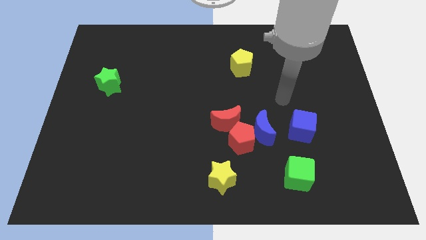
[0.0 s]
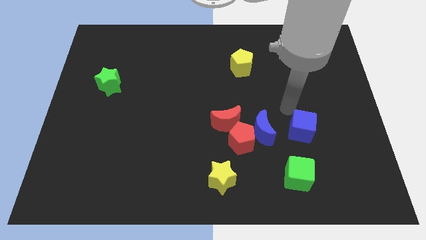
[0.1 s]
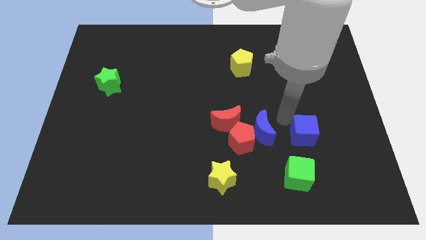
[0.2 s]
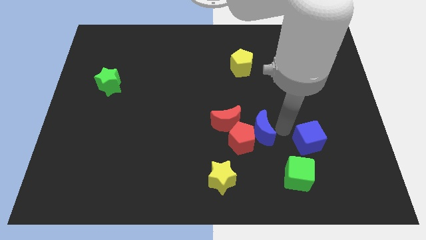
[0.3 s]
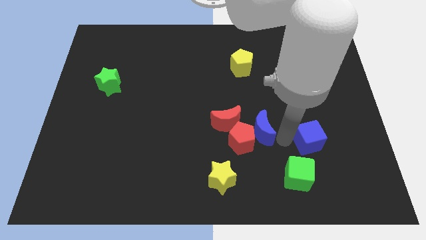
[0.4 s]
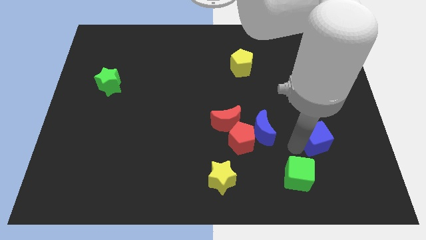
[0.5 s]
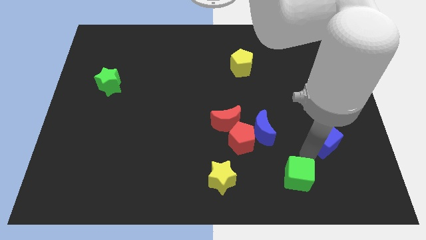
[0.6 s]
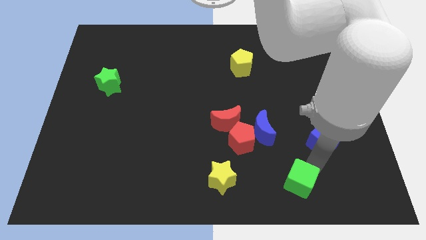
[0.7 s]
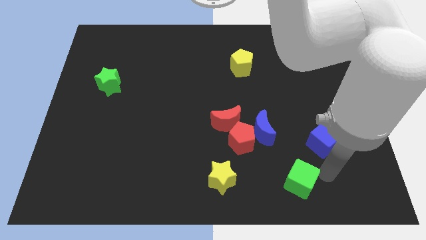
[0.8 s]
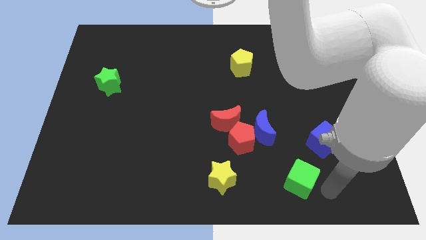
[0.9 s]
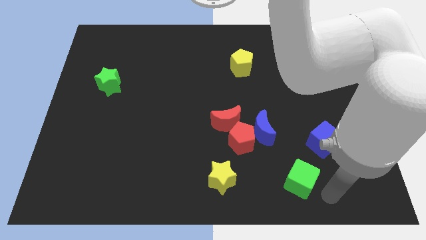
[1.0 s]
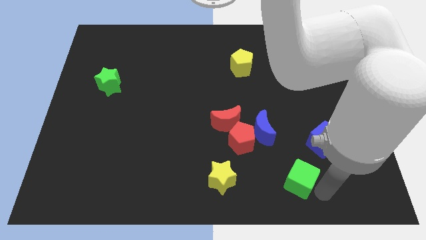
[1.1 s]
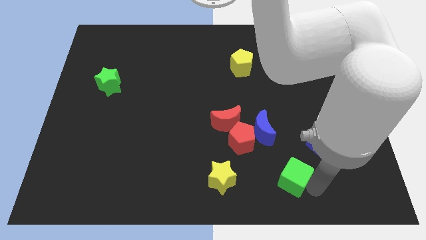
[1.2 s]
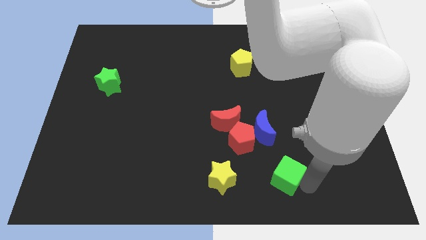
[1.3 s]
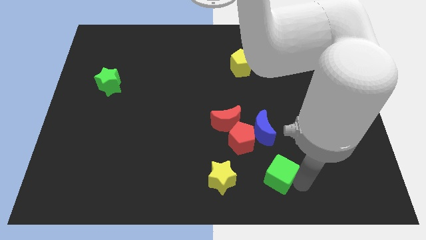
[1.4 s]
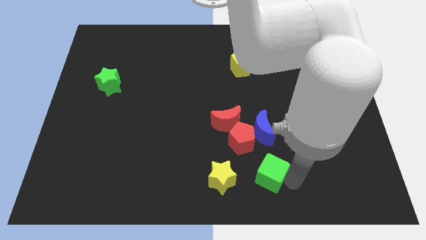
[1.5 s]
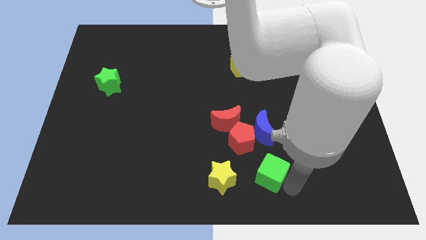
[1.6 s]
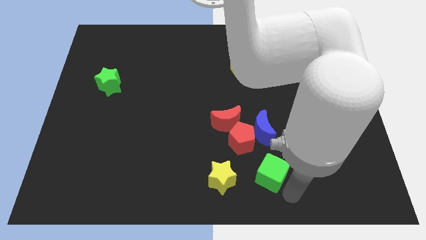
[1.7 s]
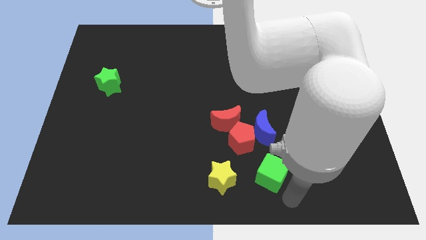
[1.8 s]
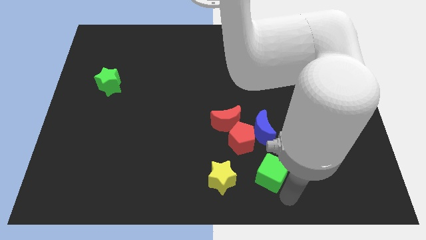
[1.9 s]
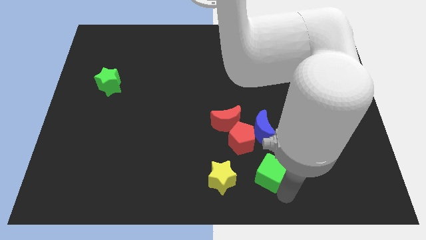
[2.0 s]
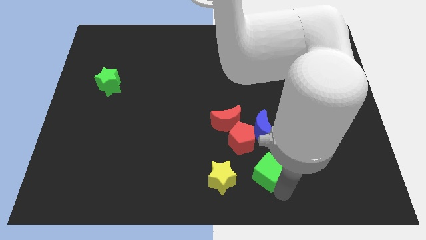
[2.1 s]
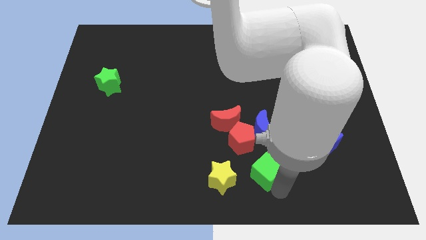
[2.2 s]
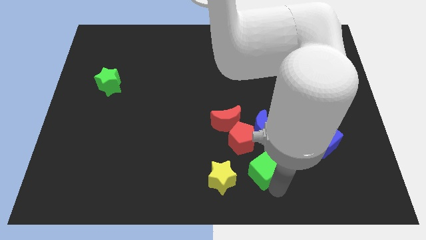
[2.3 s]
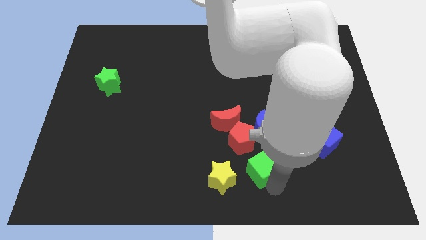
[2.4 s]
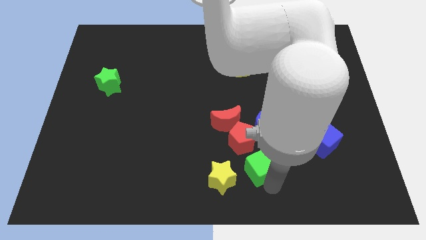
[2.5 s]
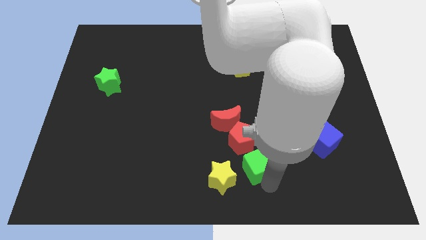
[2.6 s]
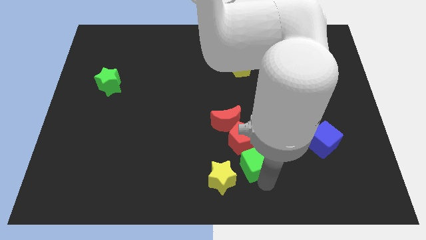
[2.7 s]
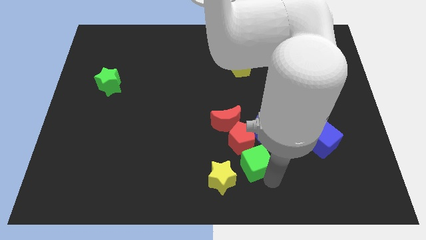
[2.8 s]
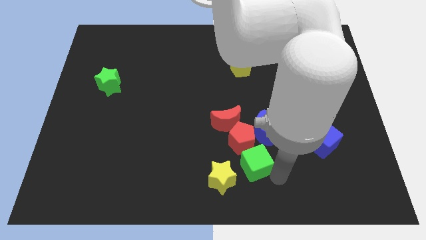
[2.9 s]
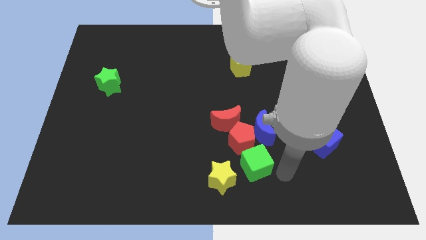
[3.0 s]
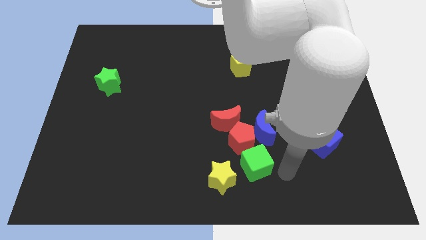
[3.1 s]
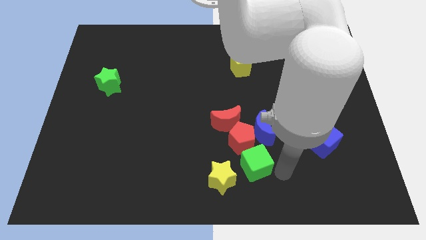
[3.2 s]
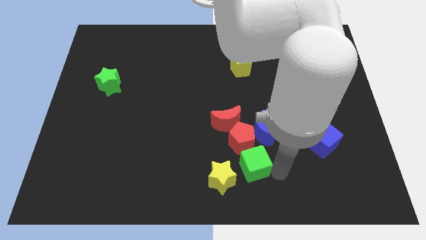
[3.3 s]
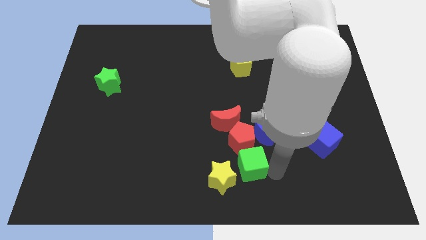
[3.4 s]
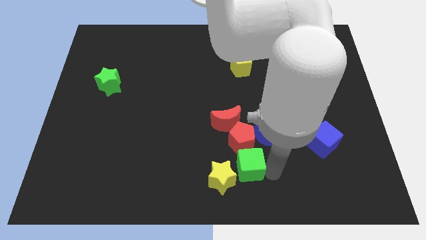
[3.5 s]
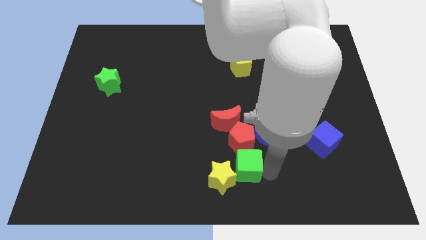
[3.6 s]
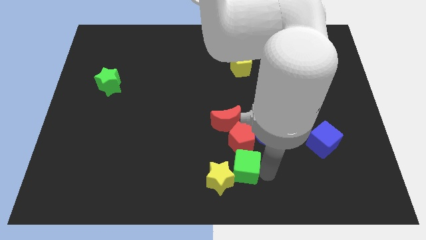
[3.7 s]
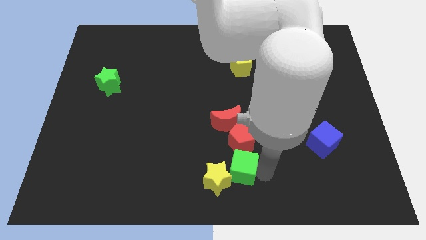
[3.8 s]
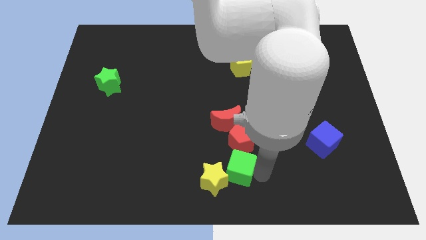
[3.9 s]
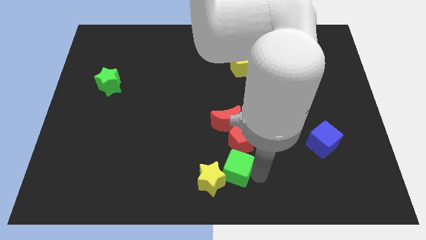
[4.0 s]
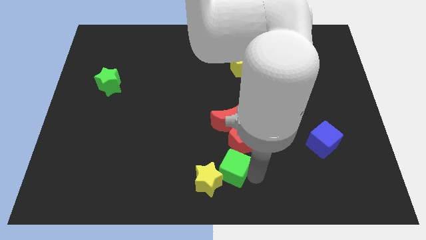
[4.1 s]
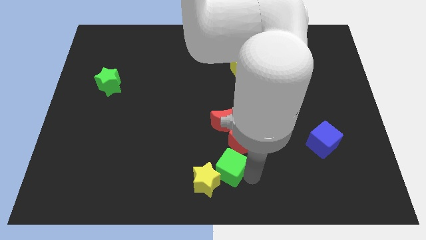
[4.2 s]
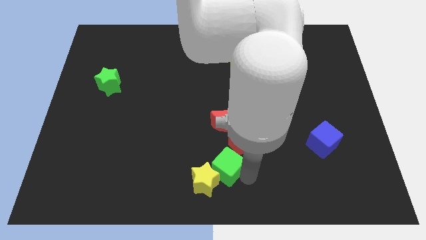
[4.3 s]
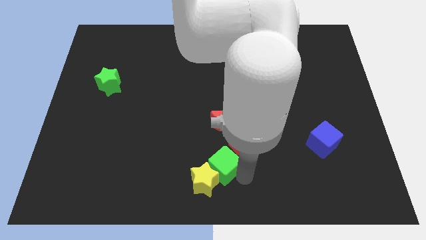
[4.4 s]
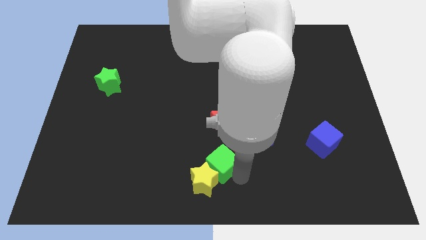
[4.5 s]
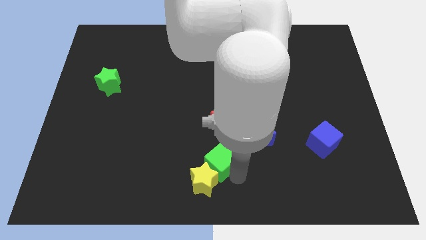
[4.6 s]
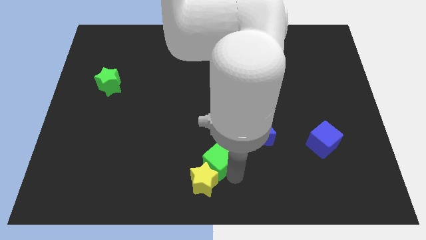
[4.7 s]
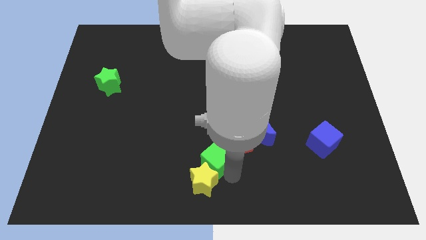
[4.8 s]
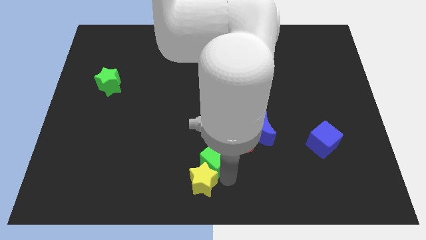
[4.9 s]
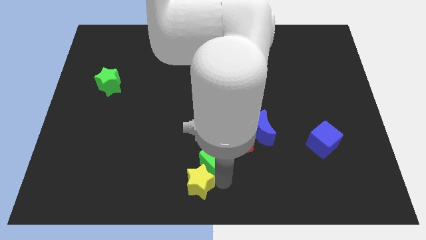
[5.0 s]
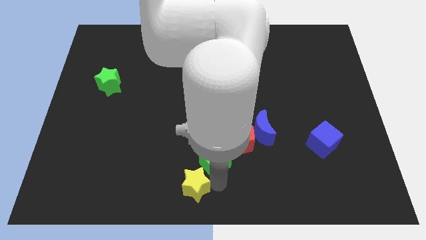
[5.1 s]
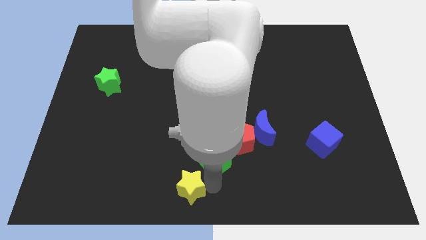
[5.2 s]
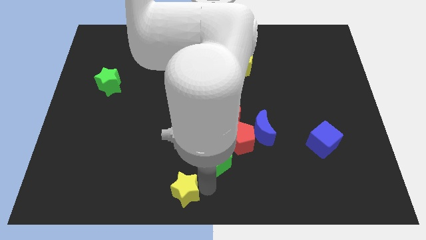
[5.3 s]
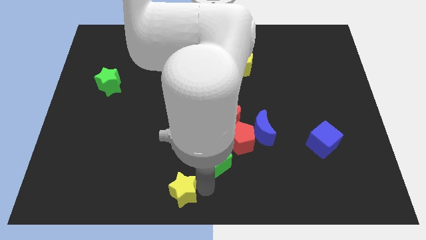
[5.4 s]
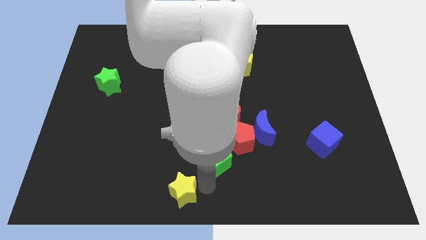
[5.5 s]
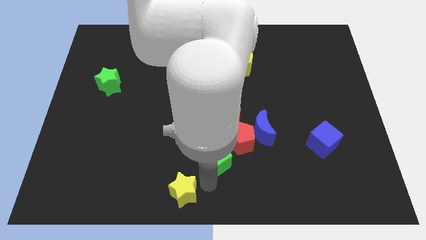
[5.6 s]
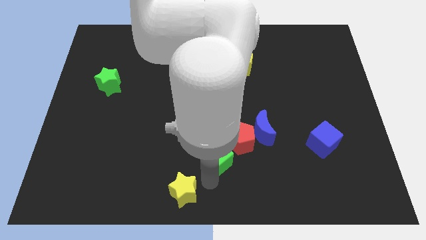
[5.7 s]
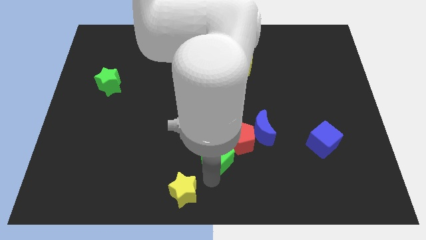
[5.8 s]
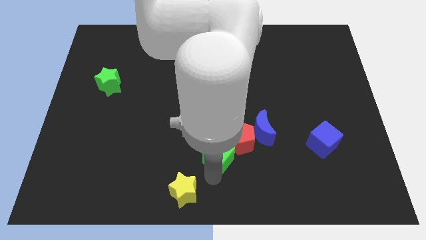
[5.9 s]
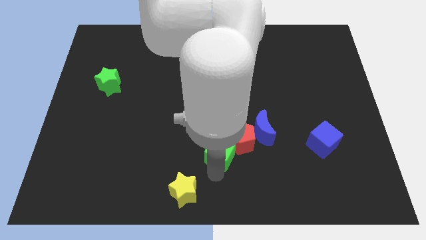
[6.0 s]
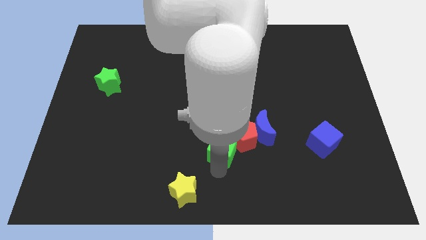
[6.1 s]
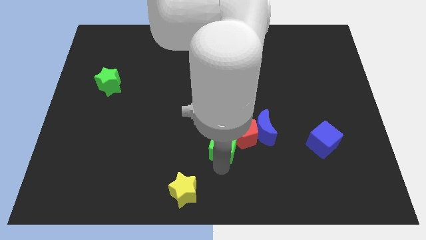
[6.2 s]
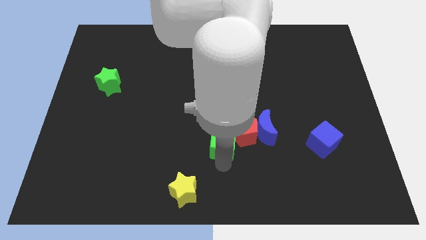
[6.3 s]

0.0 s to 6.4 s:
push the green cube to the red moon

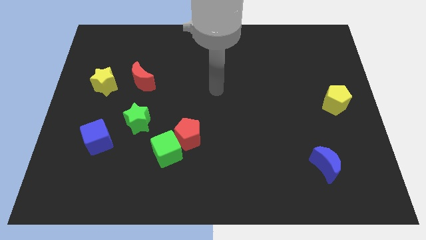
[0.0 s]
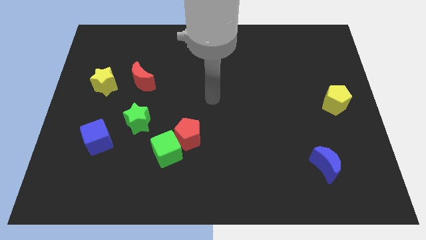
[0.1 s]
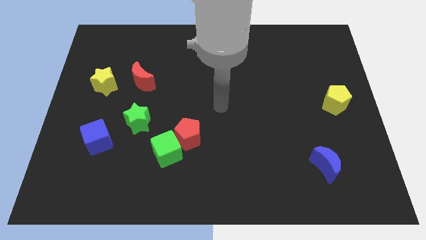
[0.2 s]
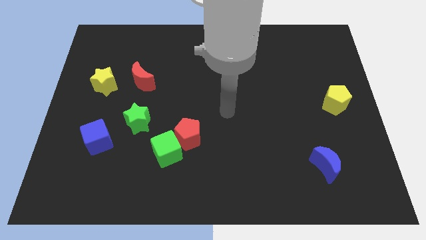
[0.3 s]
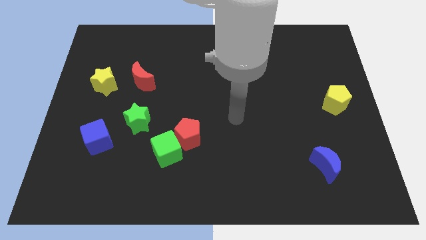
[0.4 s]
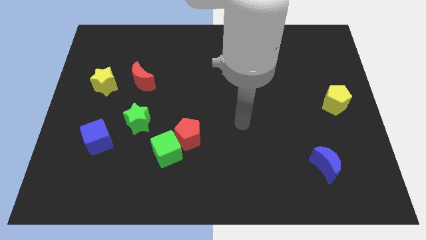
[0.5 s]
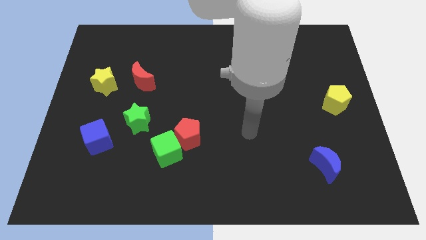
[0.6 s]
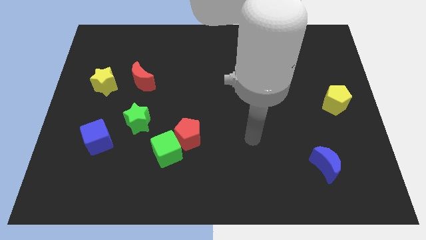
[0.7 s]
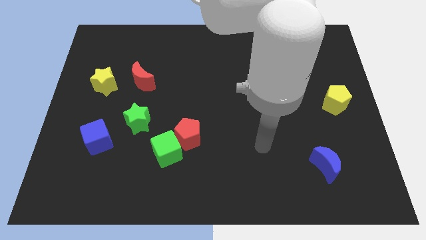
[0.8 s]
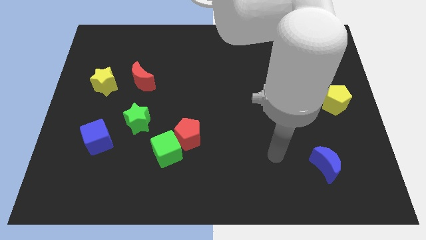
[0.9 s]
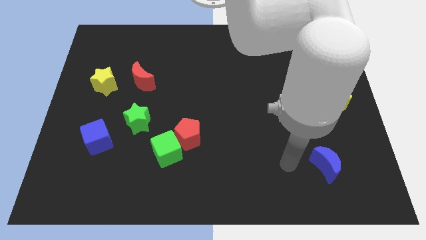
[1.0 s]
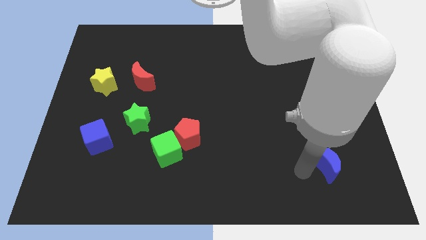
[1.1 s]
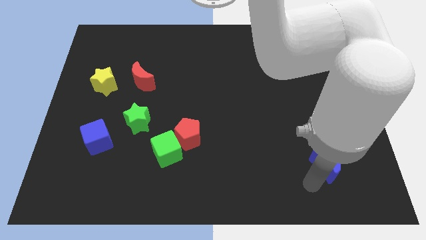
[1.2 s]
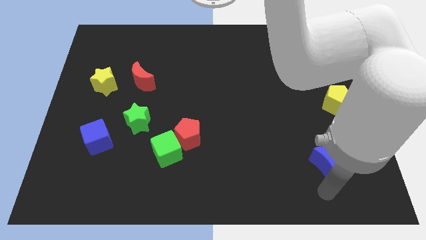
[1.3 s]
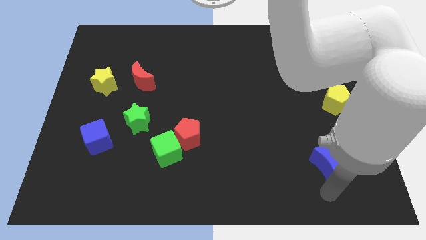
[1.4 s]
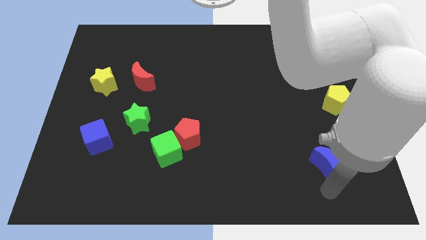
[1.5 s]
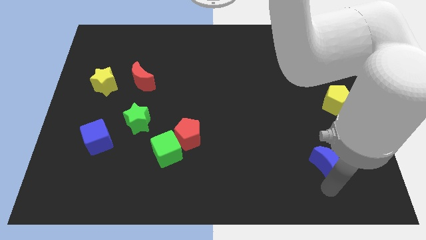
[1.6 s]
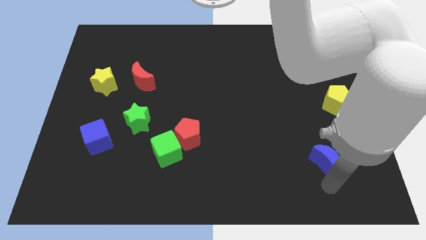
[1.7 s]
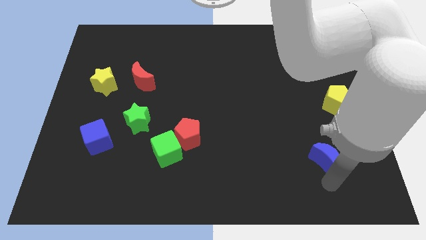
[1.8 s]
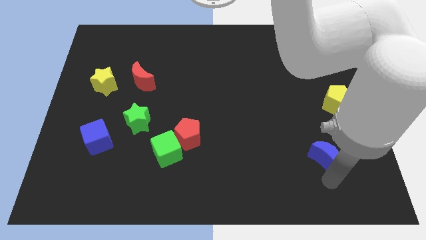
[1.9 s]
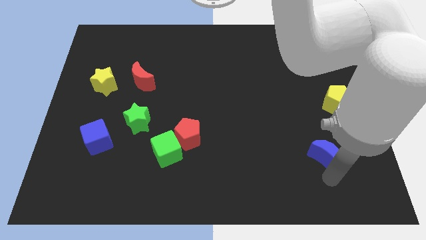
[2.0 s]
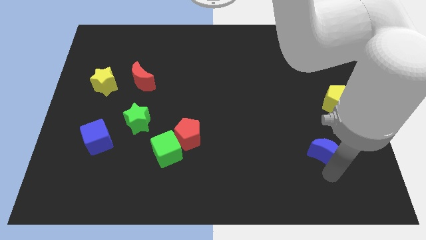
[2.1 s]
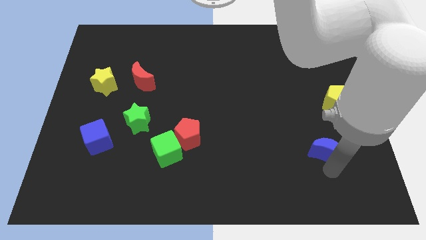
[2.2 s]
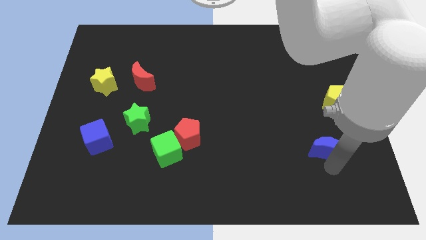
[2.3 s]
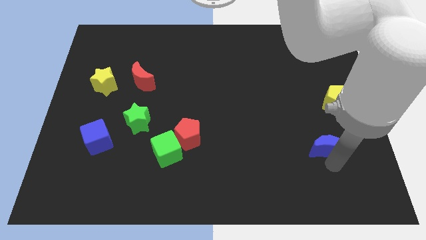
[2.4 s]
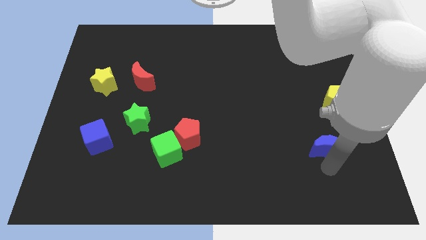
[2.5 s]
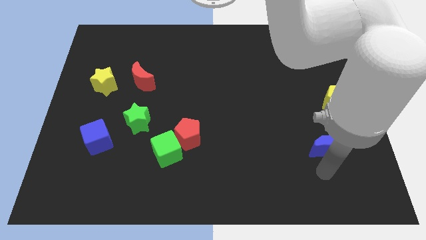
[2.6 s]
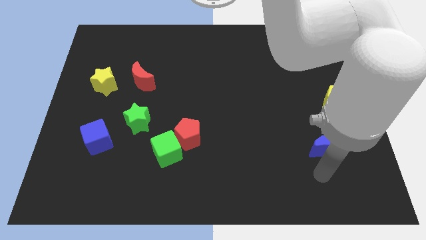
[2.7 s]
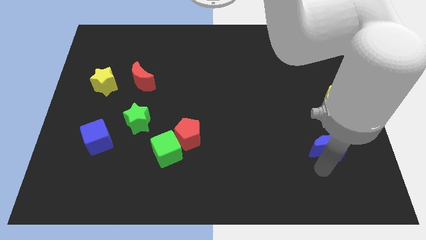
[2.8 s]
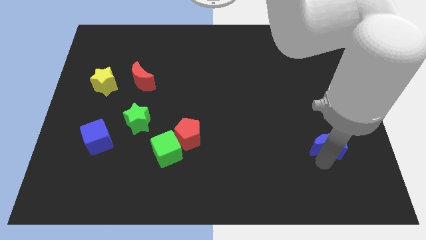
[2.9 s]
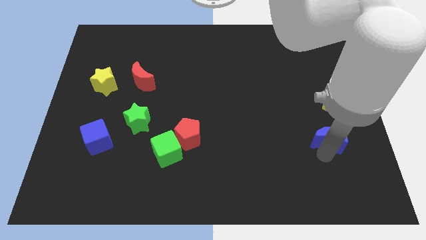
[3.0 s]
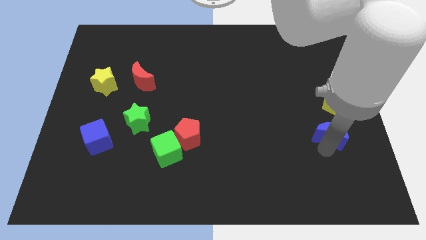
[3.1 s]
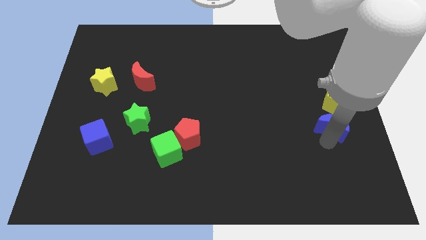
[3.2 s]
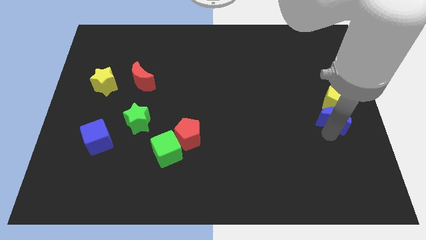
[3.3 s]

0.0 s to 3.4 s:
put the blue moon next to the yellow pentagon
